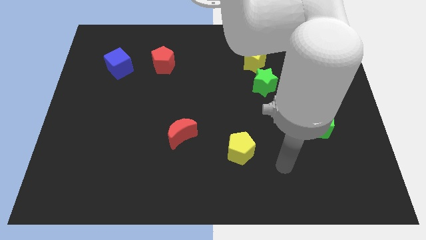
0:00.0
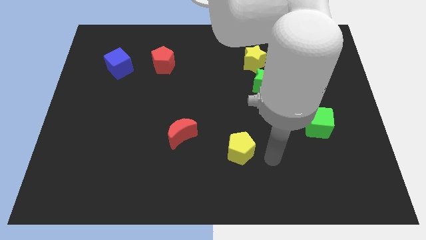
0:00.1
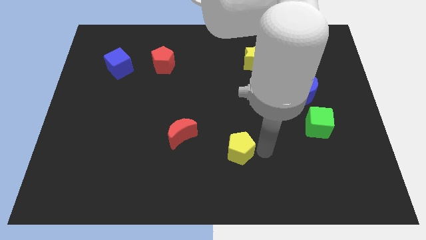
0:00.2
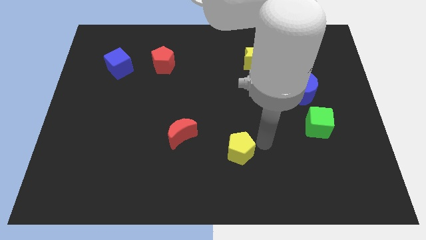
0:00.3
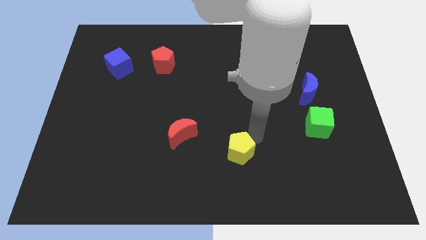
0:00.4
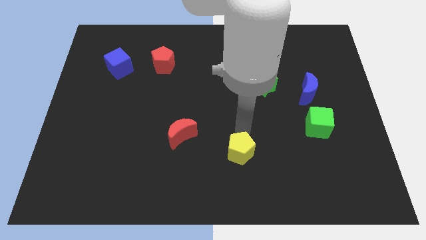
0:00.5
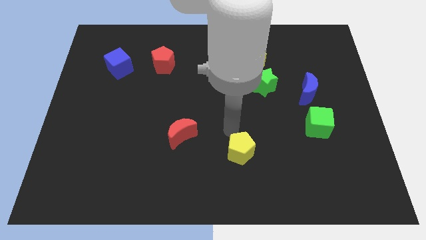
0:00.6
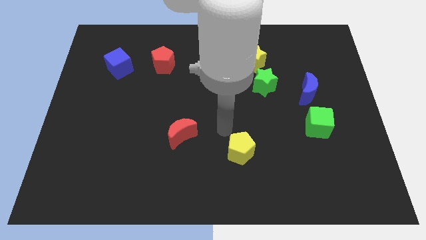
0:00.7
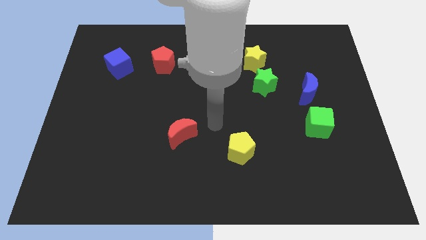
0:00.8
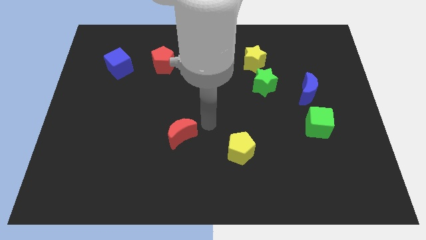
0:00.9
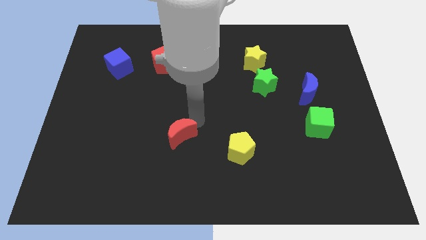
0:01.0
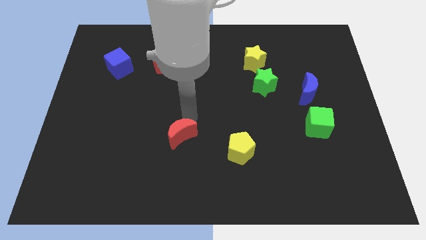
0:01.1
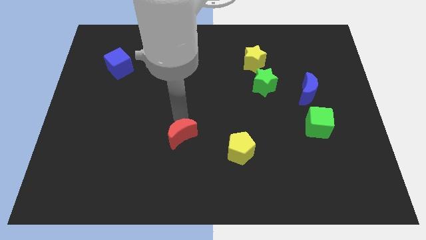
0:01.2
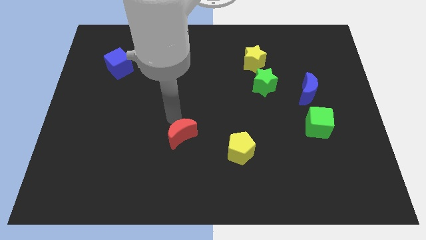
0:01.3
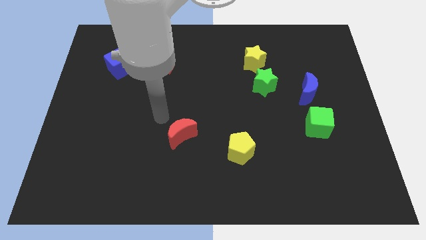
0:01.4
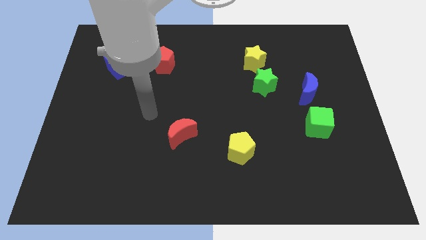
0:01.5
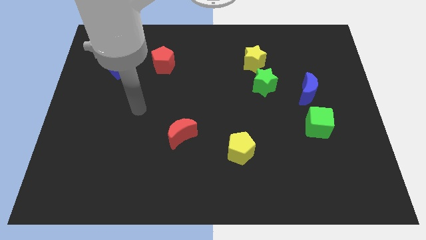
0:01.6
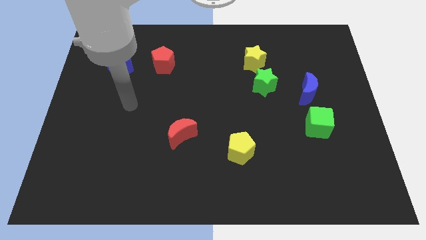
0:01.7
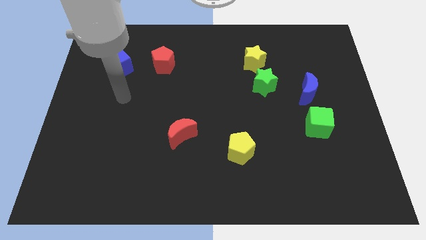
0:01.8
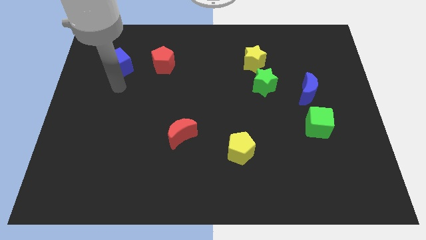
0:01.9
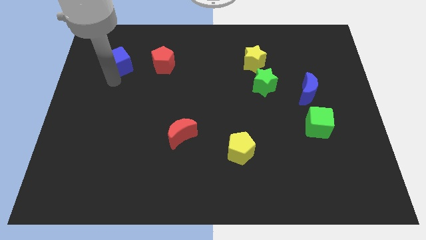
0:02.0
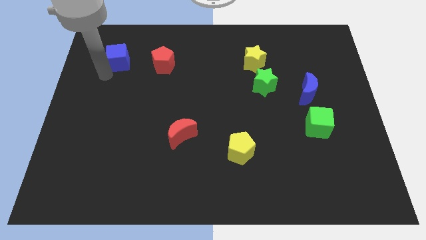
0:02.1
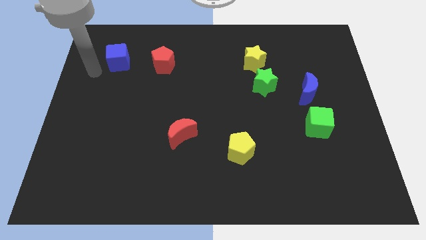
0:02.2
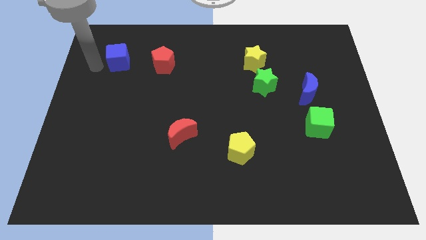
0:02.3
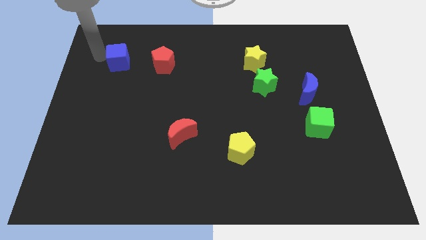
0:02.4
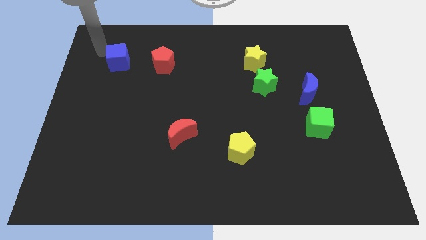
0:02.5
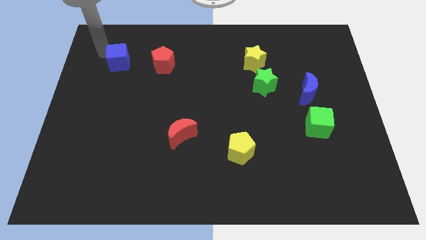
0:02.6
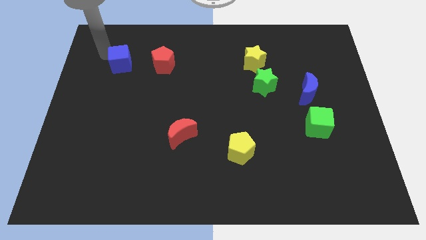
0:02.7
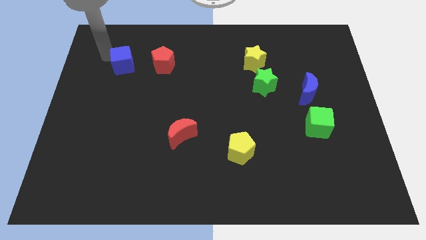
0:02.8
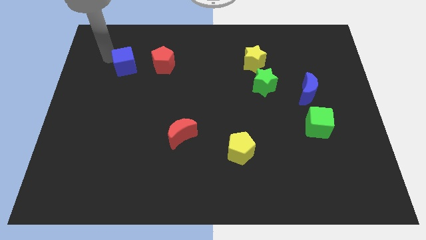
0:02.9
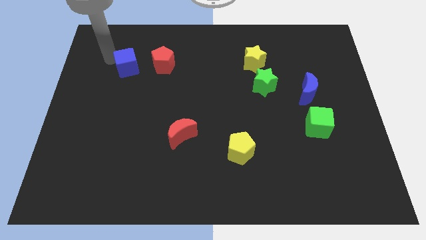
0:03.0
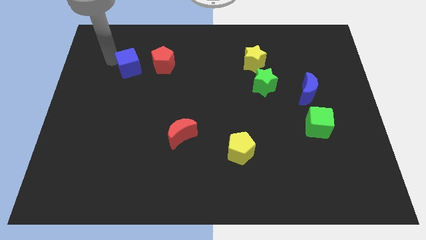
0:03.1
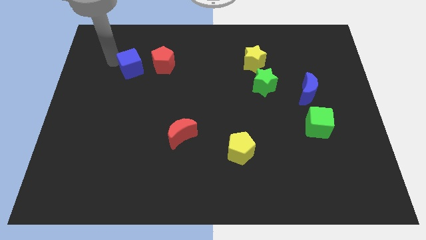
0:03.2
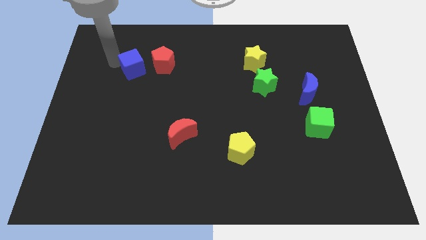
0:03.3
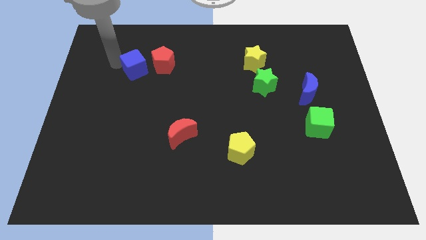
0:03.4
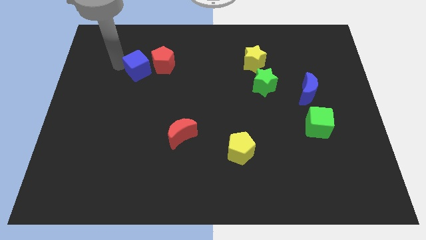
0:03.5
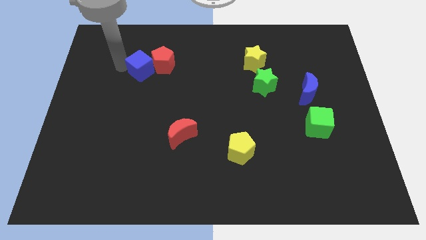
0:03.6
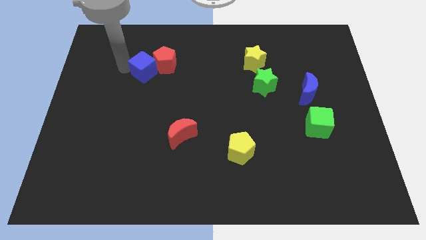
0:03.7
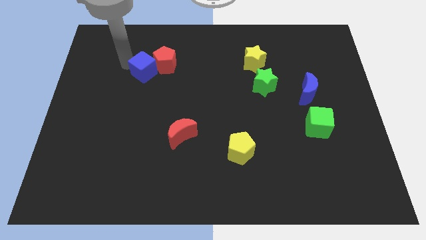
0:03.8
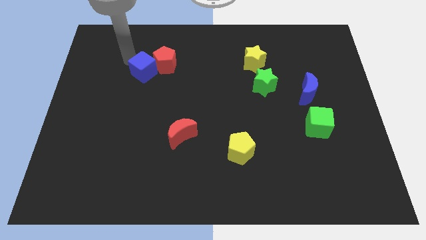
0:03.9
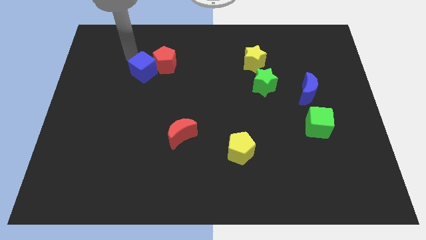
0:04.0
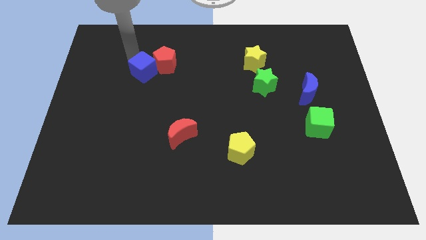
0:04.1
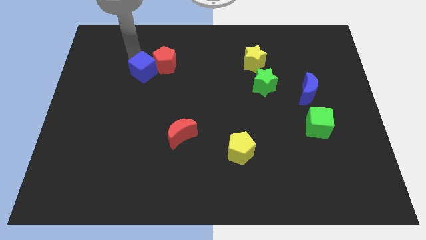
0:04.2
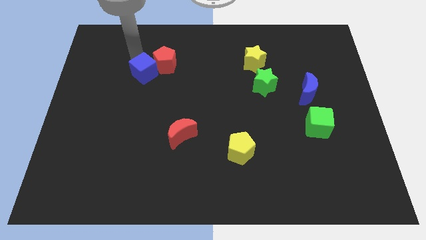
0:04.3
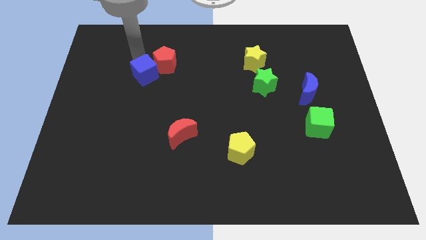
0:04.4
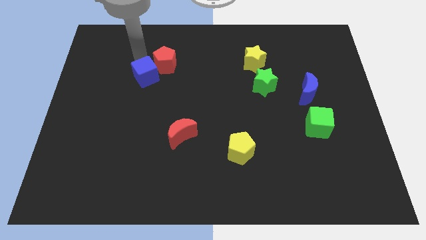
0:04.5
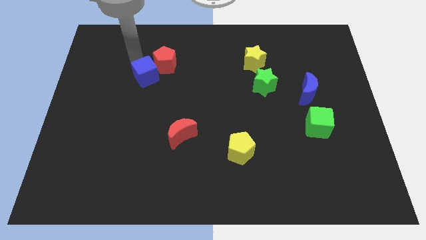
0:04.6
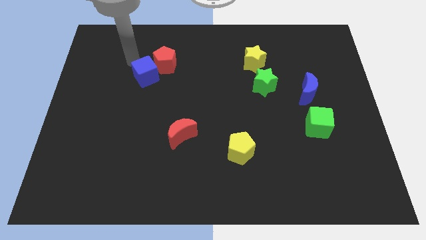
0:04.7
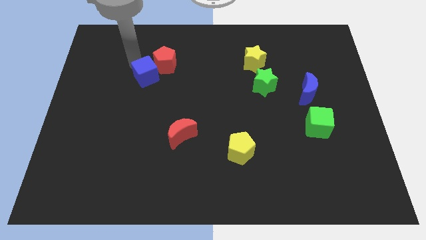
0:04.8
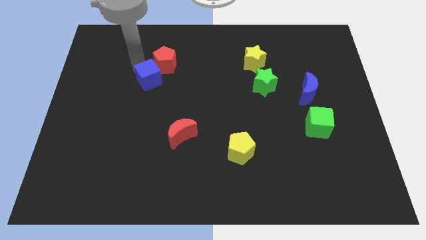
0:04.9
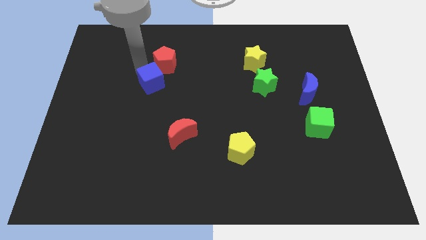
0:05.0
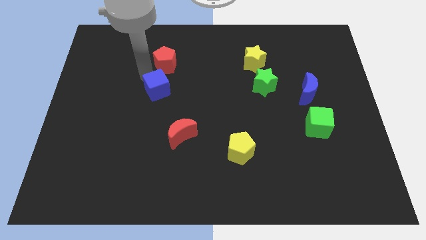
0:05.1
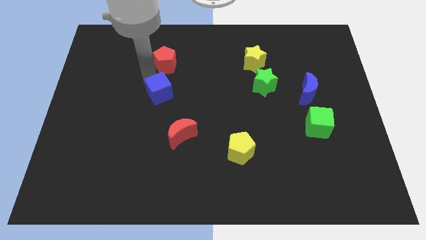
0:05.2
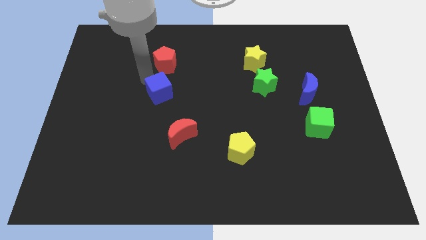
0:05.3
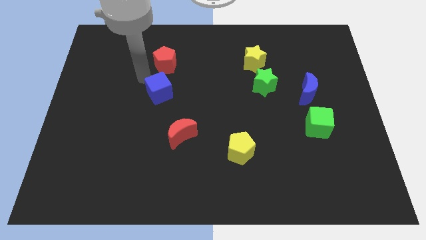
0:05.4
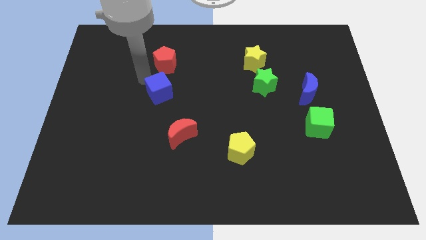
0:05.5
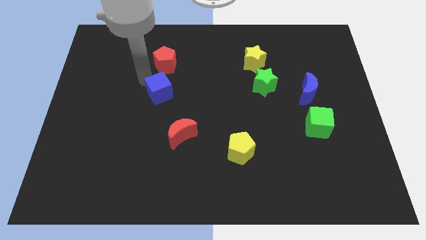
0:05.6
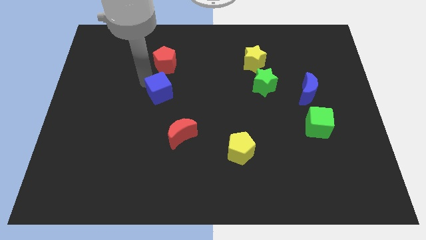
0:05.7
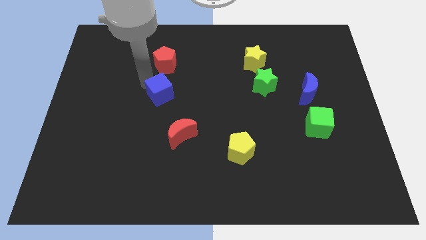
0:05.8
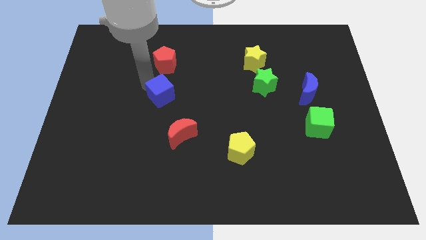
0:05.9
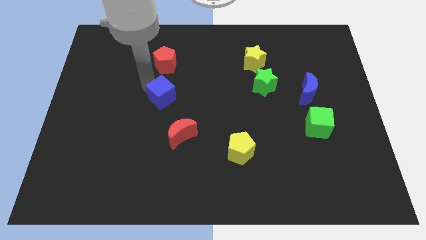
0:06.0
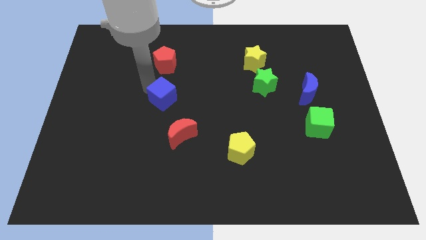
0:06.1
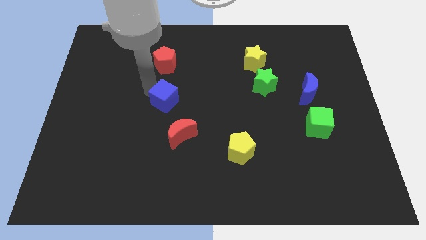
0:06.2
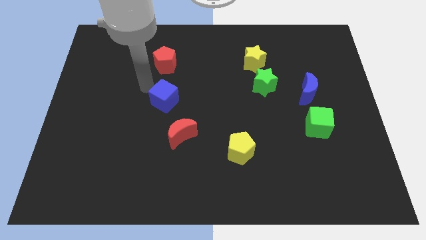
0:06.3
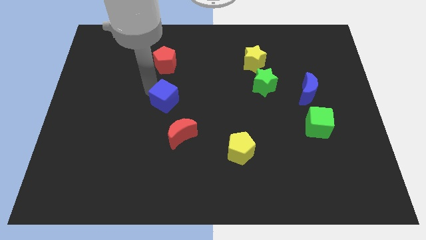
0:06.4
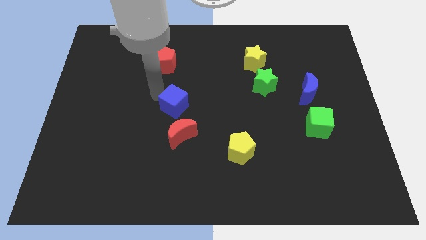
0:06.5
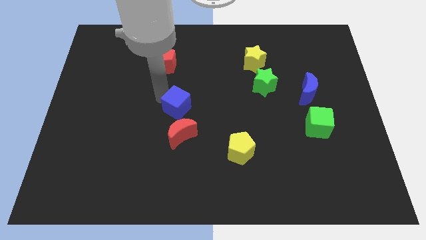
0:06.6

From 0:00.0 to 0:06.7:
move the blue cube down and to the right

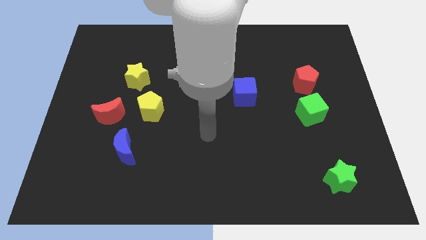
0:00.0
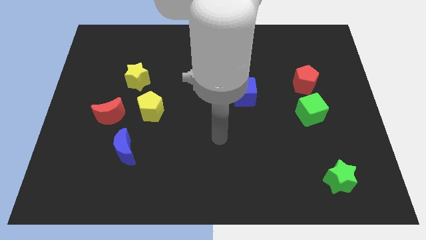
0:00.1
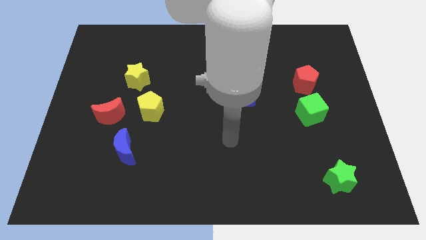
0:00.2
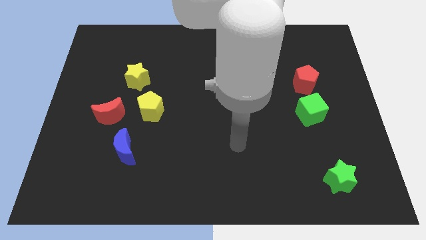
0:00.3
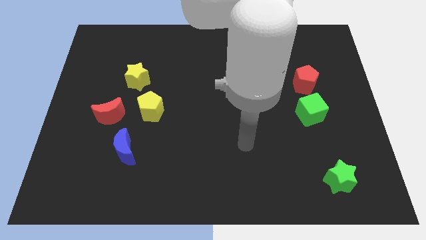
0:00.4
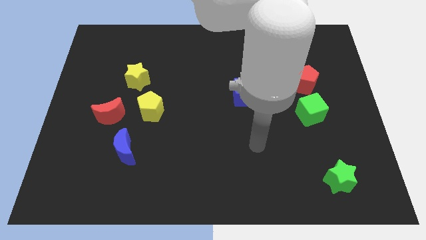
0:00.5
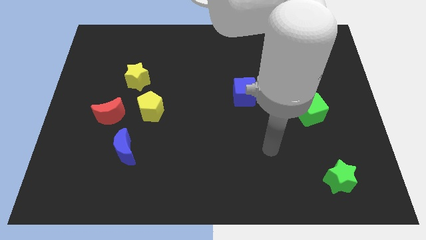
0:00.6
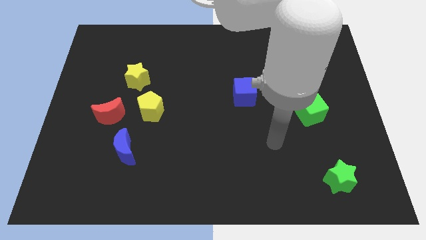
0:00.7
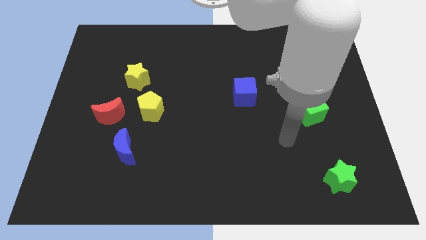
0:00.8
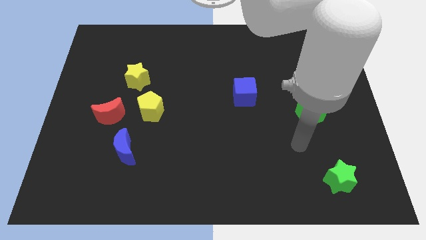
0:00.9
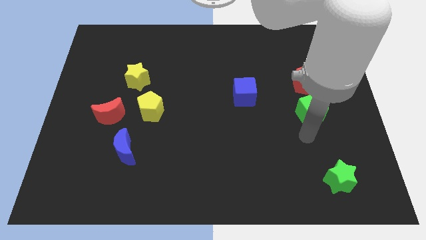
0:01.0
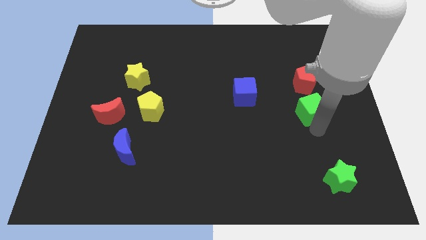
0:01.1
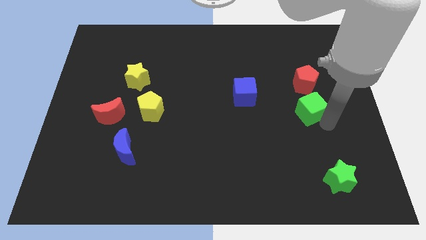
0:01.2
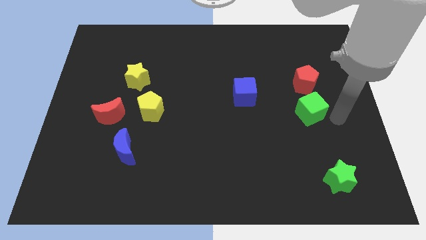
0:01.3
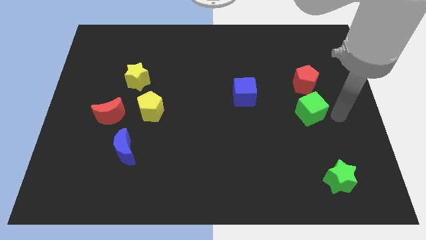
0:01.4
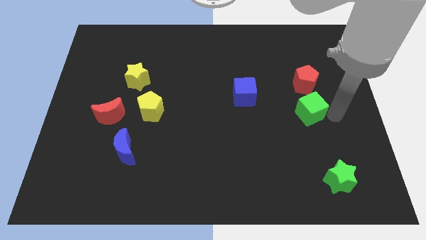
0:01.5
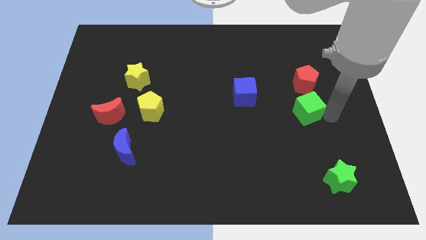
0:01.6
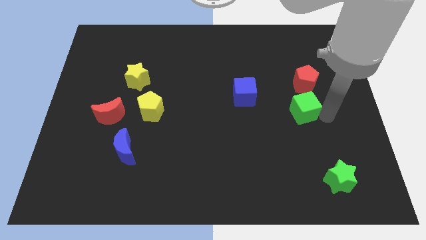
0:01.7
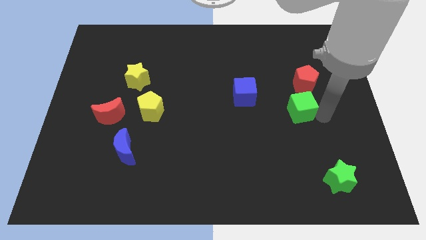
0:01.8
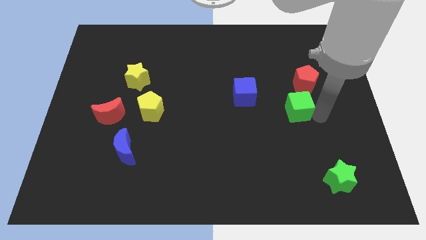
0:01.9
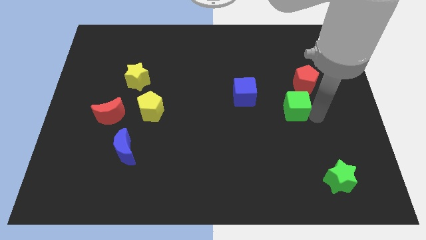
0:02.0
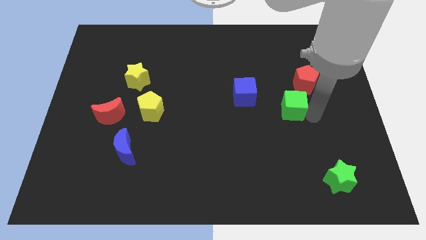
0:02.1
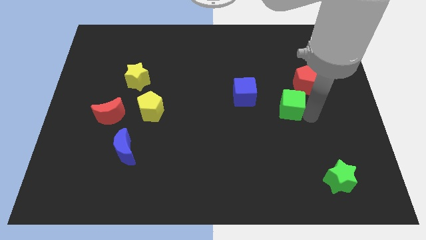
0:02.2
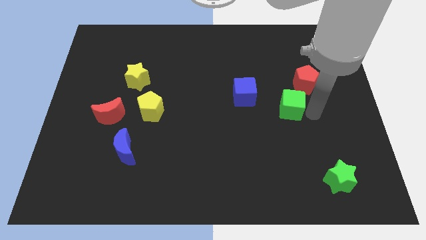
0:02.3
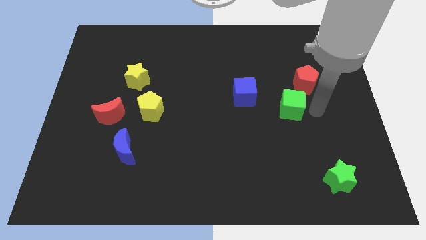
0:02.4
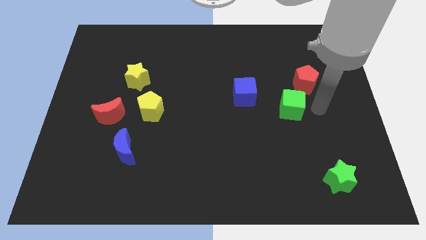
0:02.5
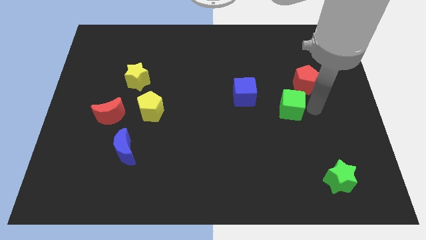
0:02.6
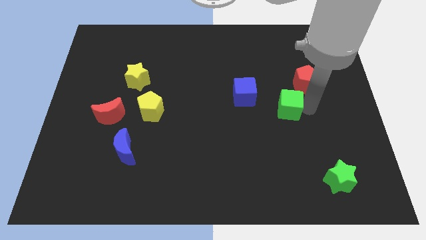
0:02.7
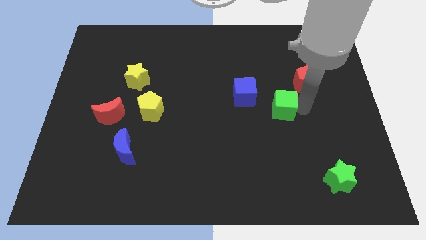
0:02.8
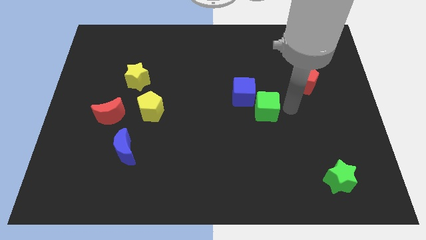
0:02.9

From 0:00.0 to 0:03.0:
push the green cube left slightly
